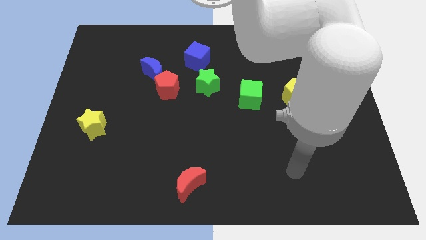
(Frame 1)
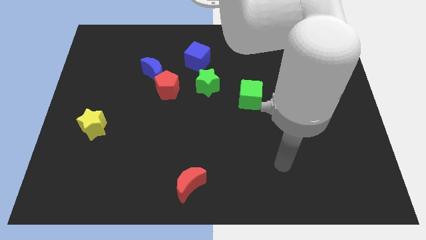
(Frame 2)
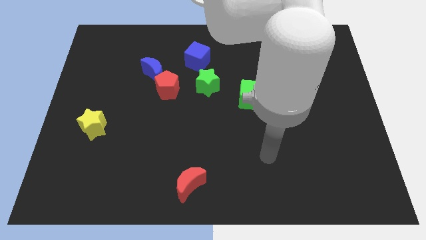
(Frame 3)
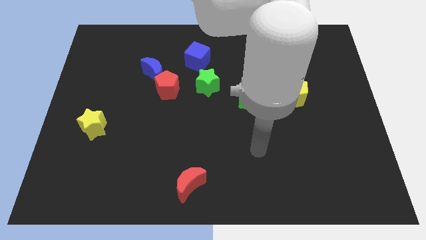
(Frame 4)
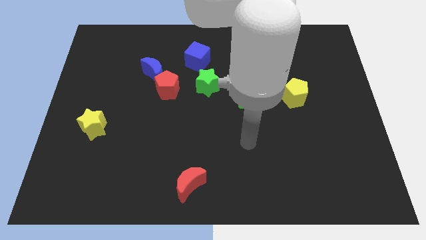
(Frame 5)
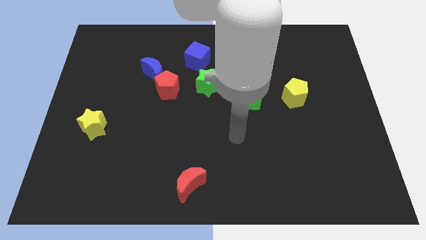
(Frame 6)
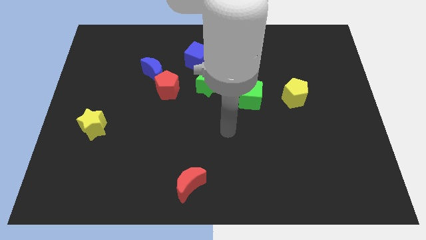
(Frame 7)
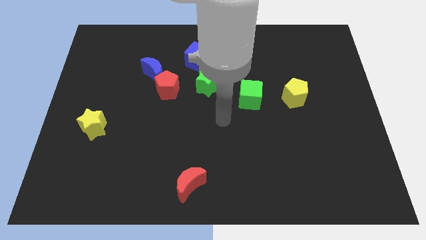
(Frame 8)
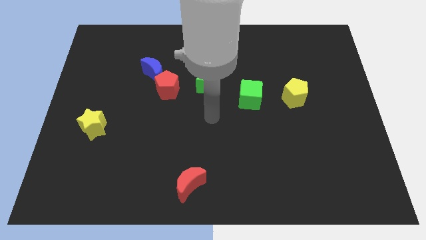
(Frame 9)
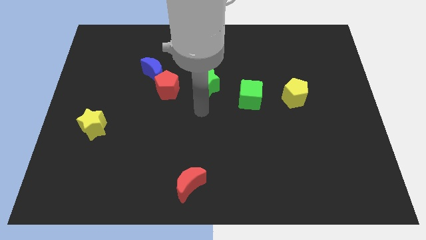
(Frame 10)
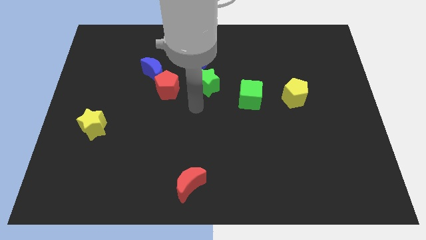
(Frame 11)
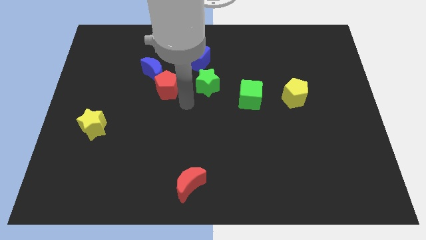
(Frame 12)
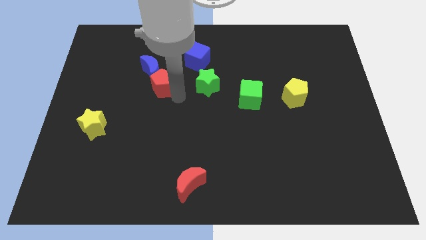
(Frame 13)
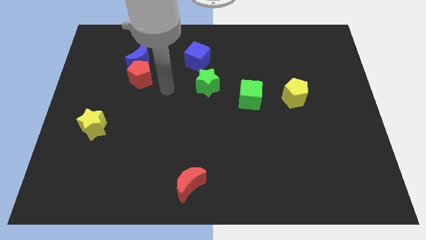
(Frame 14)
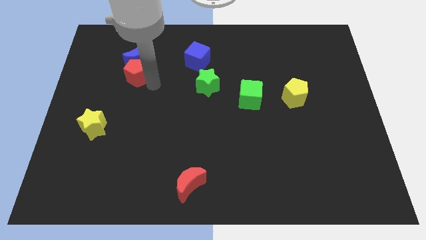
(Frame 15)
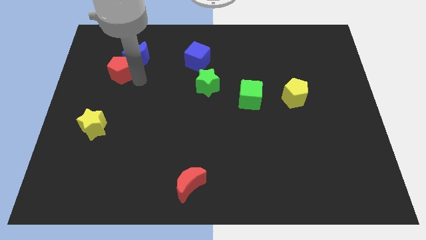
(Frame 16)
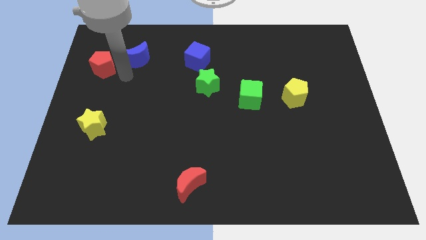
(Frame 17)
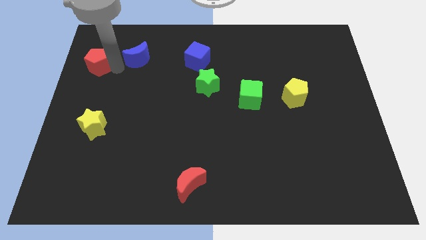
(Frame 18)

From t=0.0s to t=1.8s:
separate the blue moon from the red pentagon

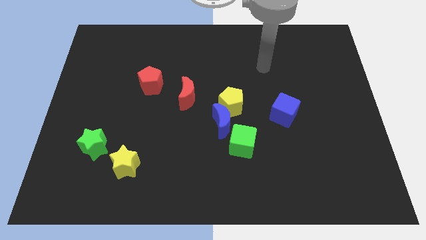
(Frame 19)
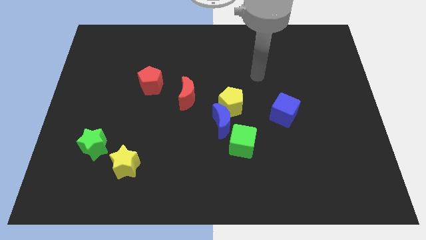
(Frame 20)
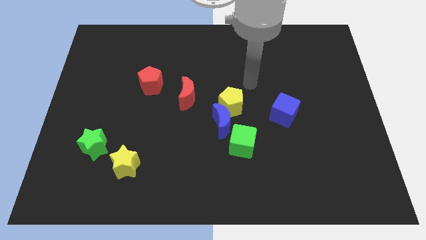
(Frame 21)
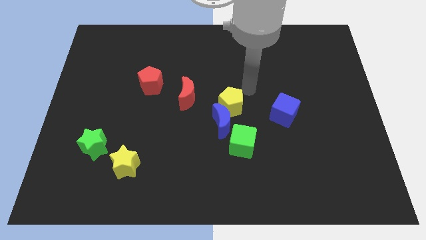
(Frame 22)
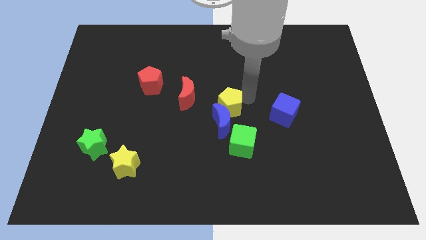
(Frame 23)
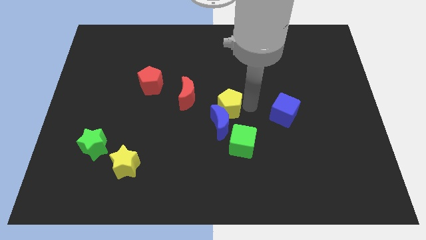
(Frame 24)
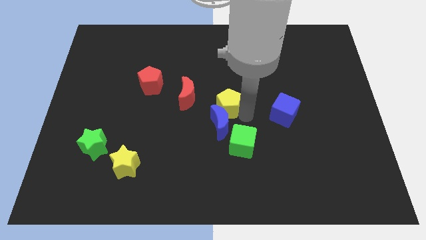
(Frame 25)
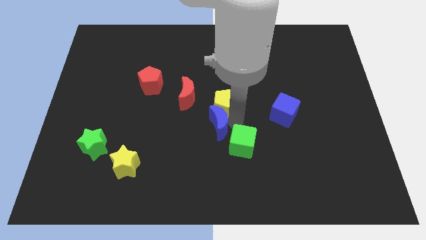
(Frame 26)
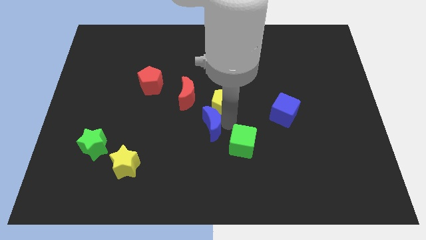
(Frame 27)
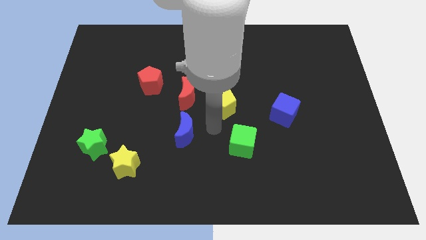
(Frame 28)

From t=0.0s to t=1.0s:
pull the yellow pentagon apart from the blue moon

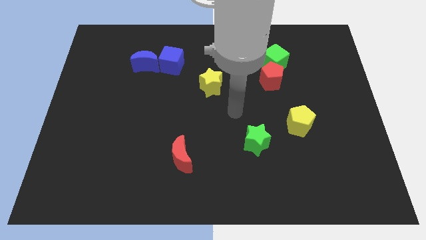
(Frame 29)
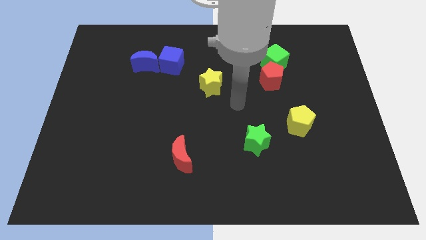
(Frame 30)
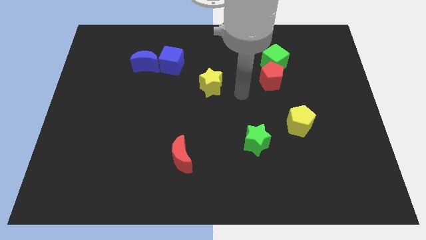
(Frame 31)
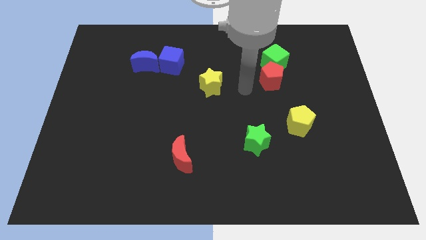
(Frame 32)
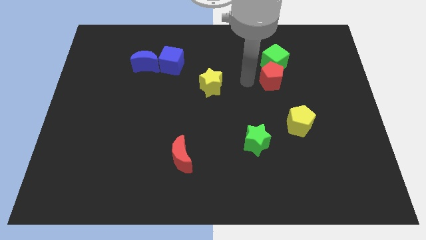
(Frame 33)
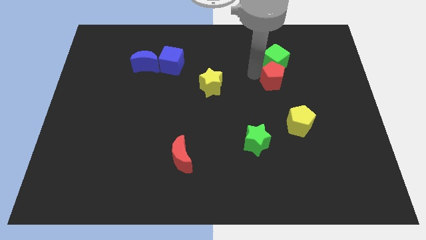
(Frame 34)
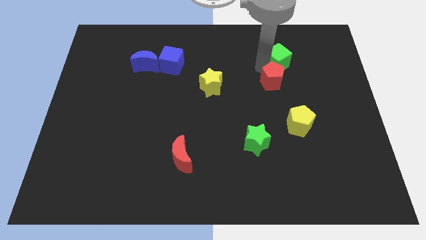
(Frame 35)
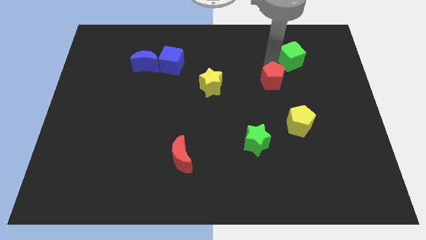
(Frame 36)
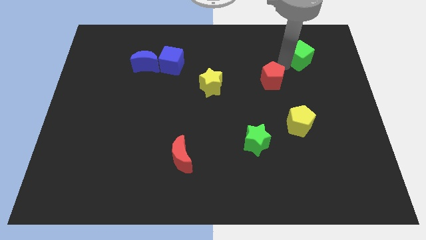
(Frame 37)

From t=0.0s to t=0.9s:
pull the red pentagon apart from the green cube

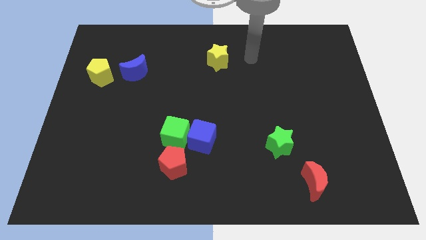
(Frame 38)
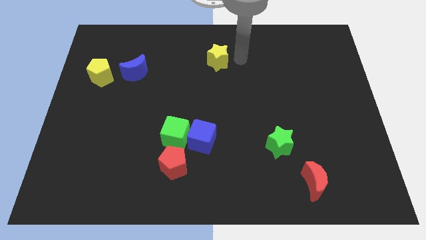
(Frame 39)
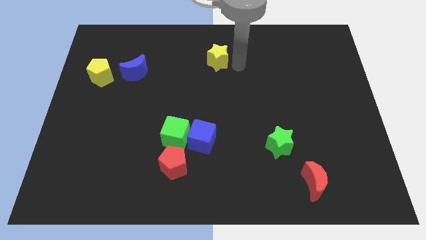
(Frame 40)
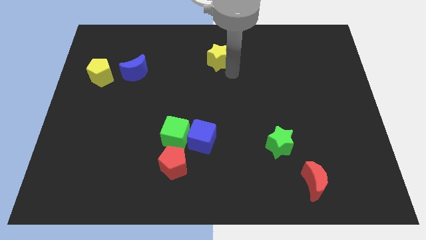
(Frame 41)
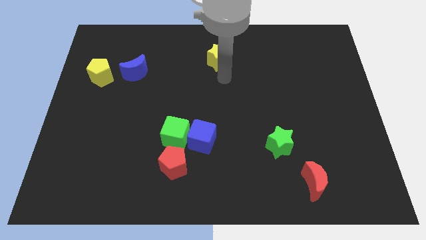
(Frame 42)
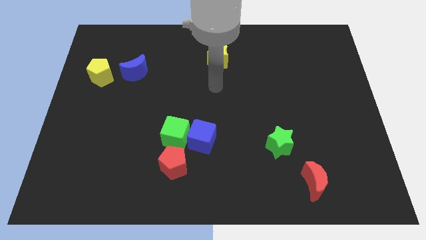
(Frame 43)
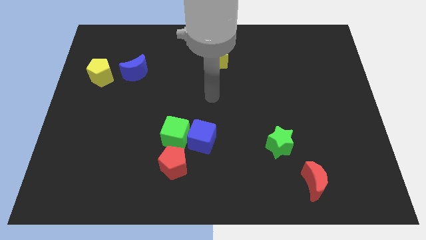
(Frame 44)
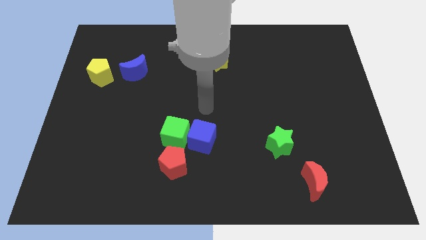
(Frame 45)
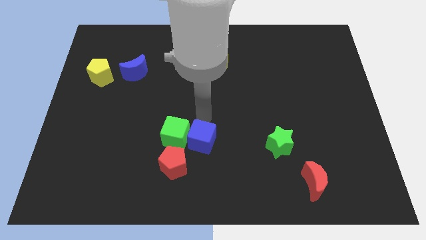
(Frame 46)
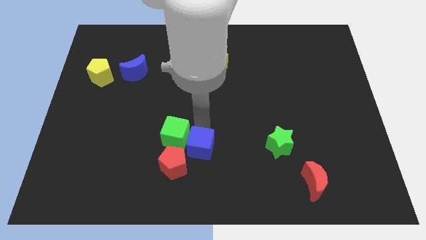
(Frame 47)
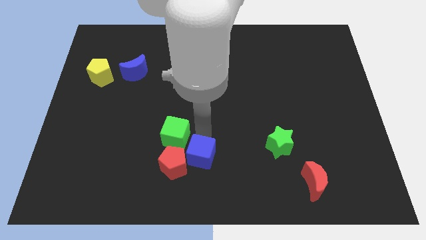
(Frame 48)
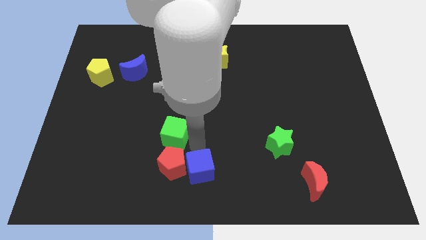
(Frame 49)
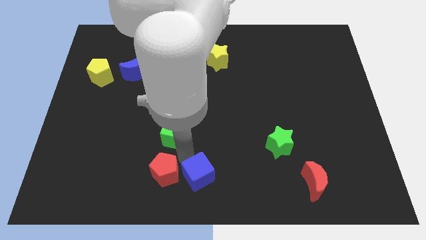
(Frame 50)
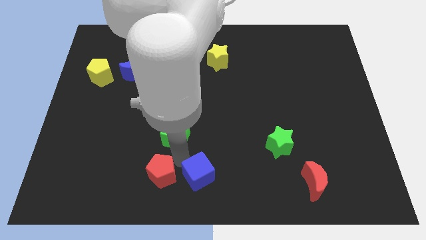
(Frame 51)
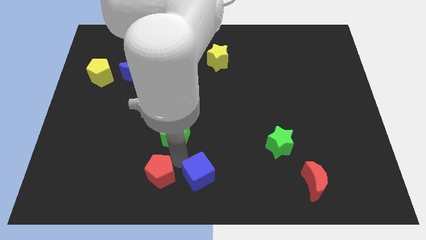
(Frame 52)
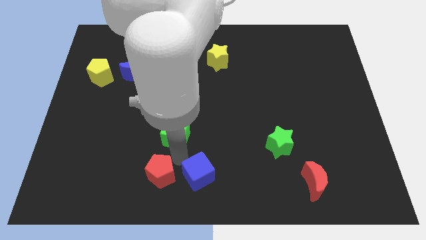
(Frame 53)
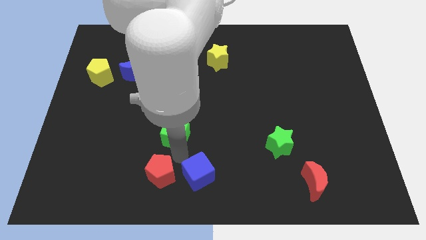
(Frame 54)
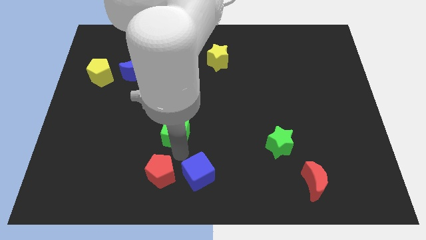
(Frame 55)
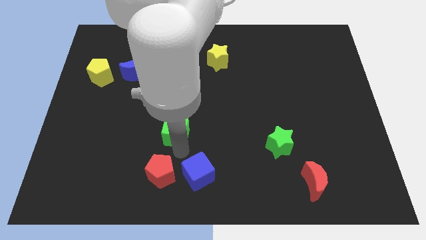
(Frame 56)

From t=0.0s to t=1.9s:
move the green cube away from the blue cube and red pentagon

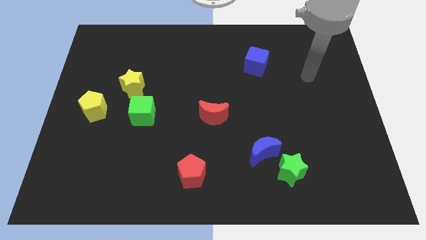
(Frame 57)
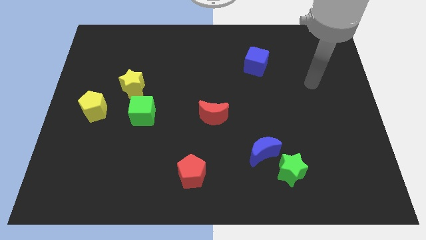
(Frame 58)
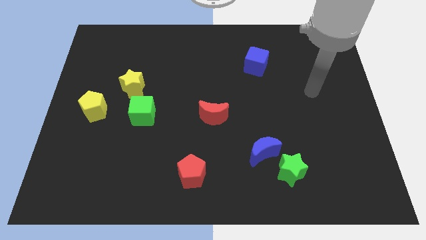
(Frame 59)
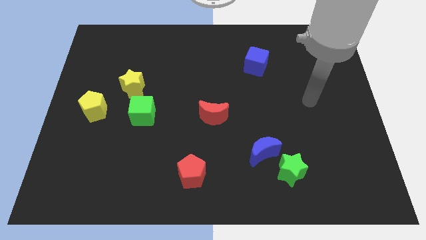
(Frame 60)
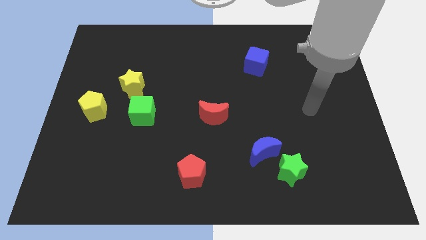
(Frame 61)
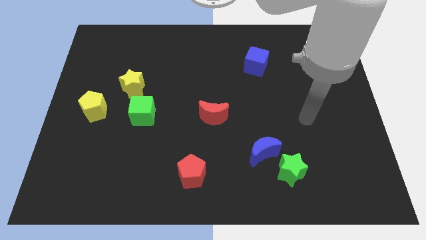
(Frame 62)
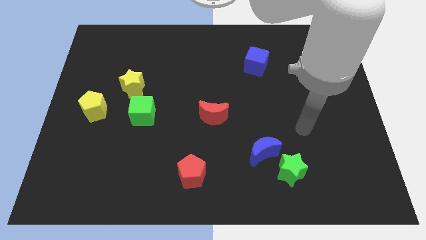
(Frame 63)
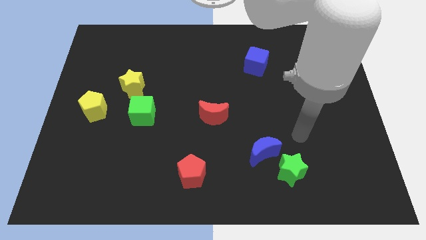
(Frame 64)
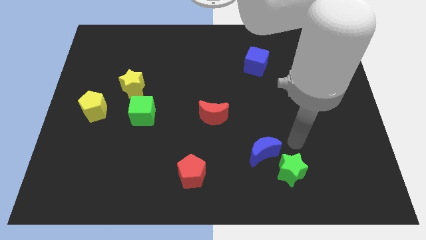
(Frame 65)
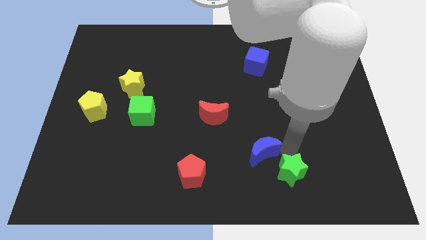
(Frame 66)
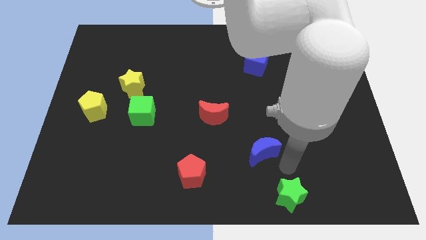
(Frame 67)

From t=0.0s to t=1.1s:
move the blue moon away from the green star

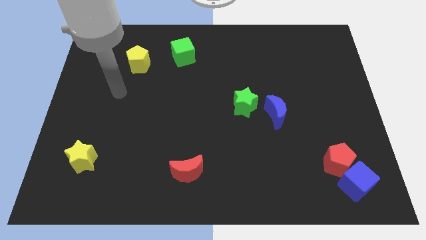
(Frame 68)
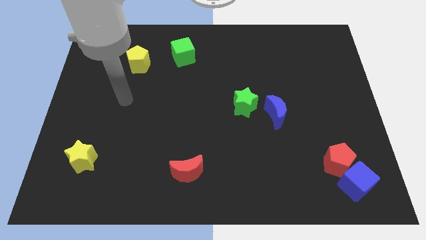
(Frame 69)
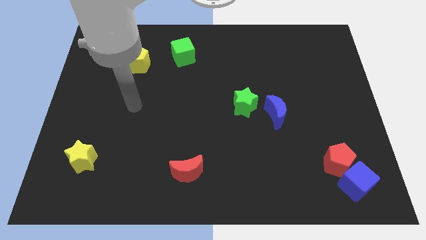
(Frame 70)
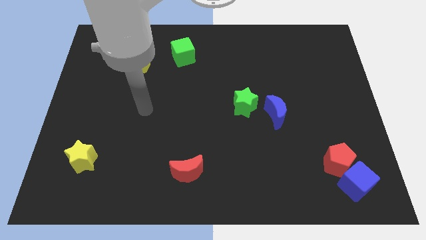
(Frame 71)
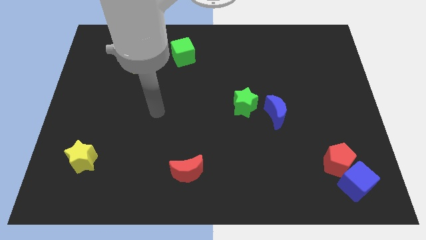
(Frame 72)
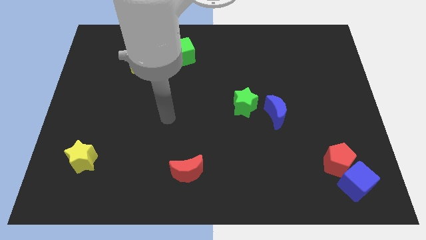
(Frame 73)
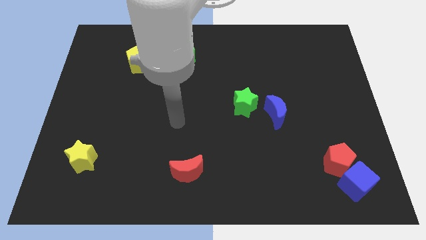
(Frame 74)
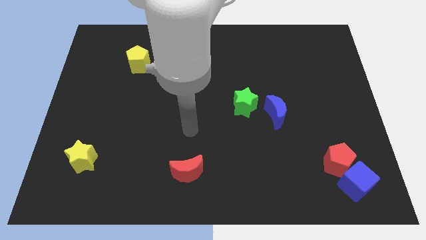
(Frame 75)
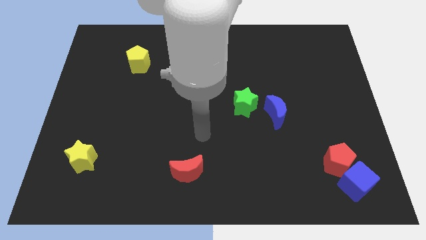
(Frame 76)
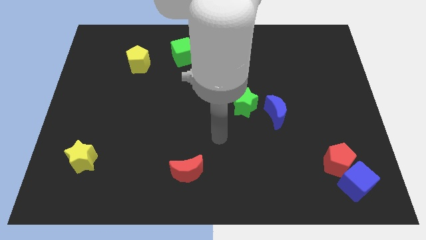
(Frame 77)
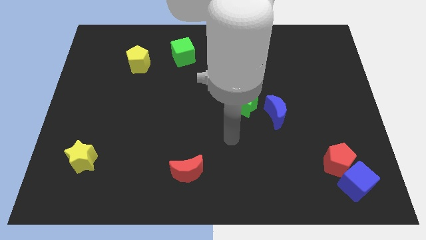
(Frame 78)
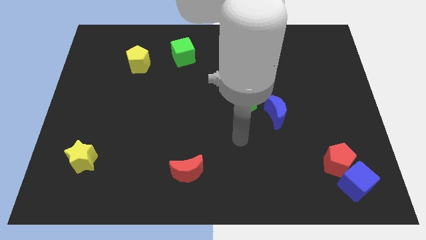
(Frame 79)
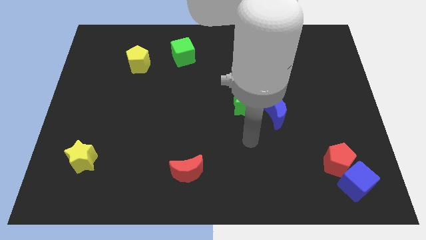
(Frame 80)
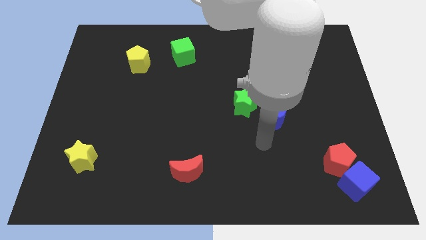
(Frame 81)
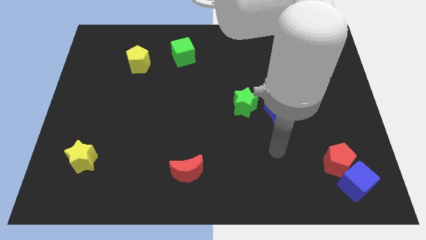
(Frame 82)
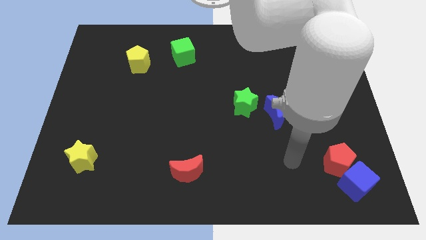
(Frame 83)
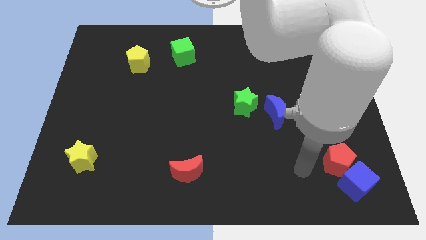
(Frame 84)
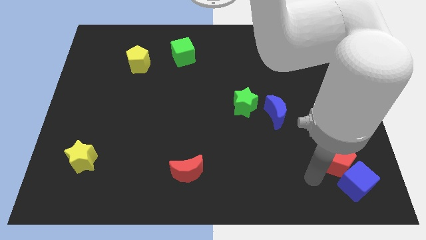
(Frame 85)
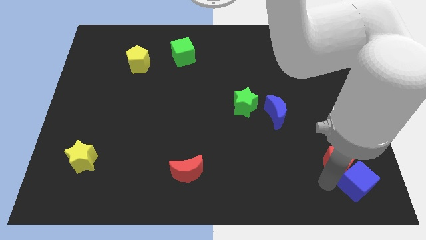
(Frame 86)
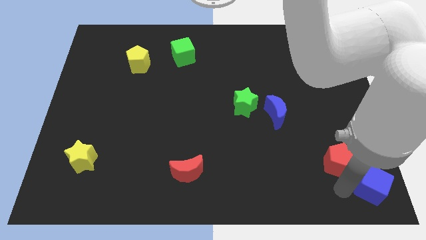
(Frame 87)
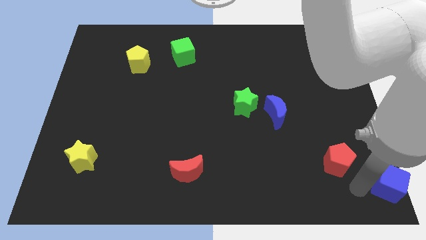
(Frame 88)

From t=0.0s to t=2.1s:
pull the red pentagon apart from the blue cube

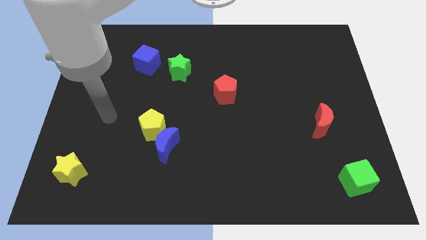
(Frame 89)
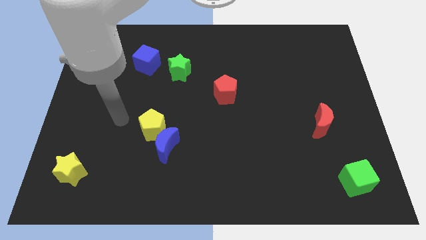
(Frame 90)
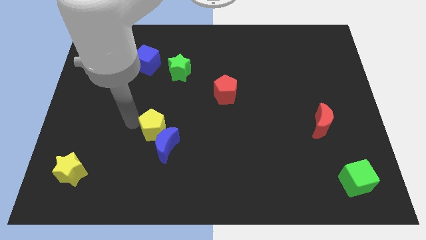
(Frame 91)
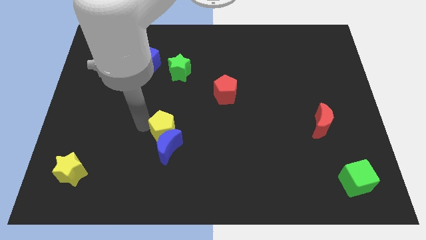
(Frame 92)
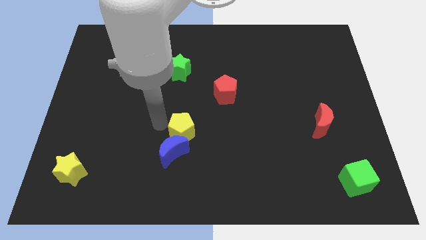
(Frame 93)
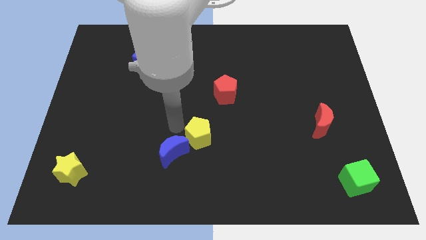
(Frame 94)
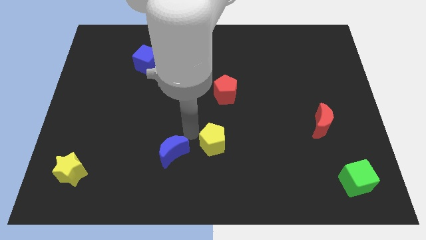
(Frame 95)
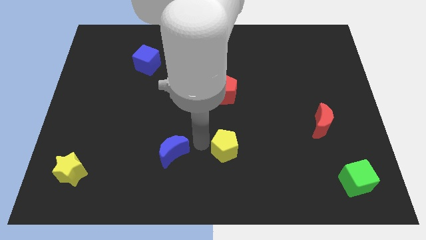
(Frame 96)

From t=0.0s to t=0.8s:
move the blue moon away from the yellow pentagon
